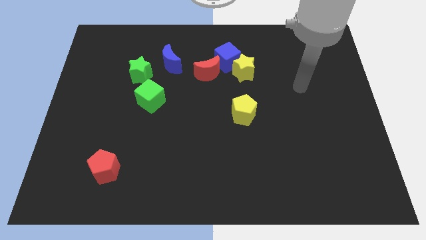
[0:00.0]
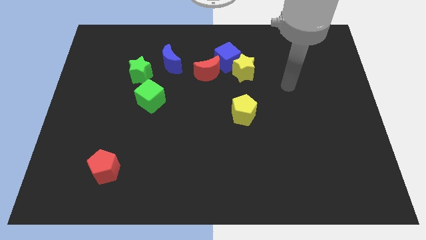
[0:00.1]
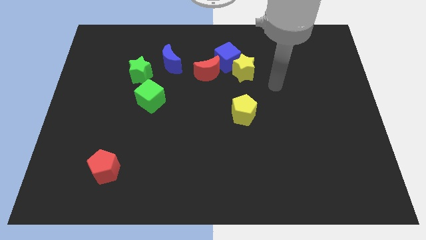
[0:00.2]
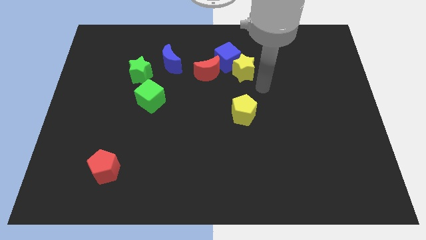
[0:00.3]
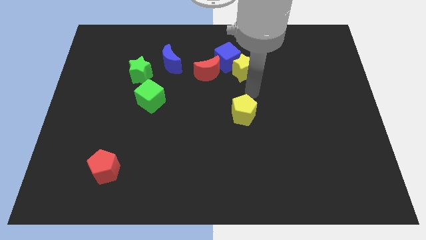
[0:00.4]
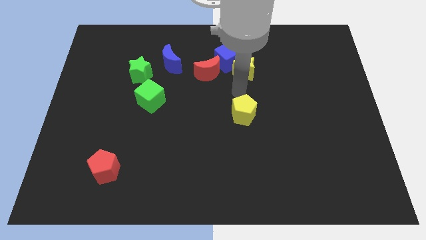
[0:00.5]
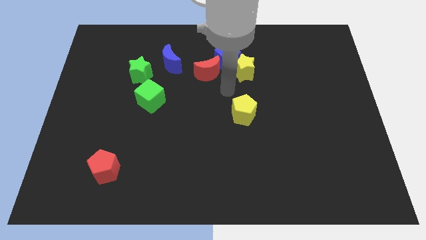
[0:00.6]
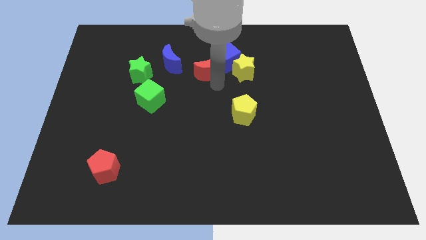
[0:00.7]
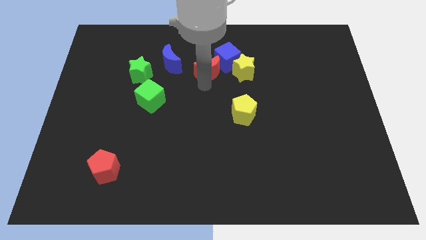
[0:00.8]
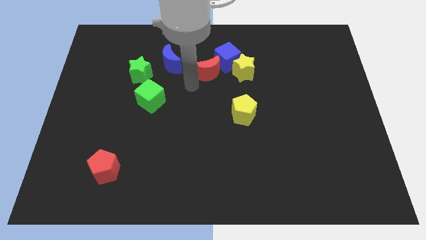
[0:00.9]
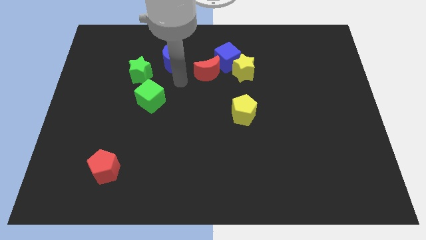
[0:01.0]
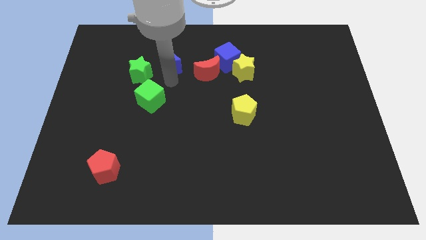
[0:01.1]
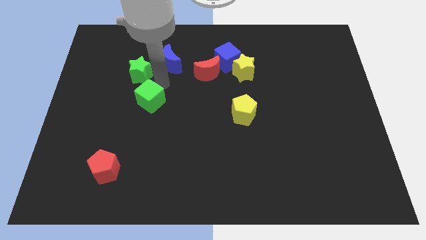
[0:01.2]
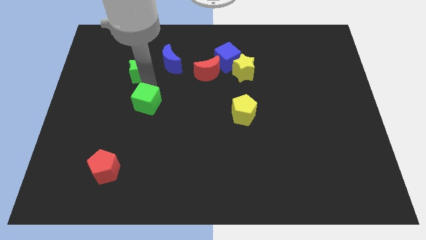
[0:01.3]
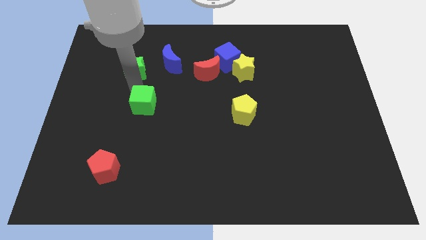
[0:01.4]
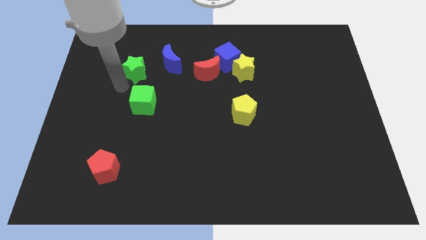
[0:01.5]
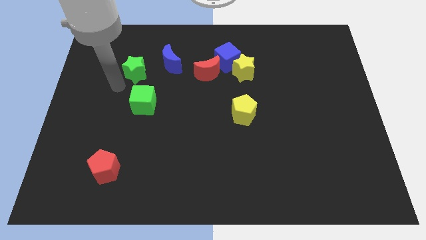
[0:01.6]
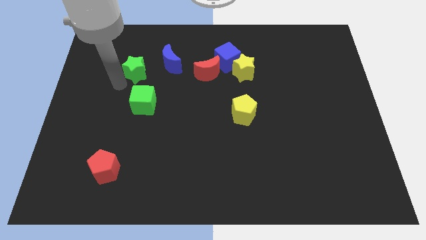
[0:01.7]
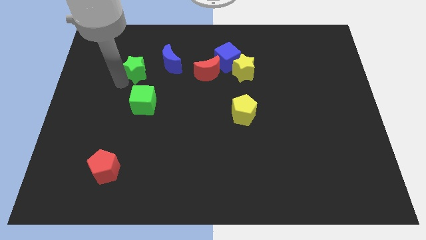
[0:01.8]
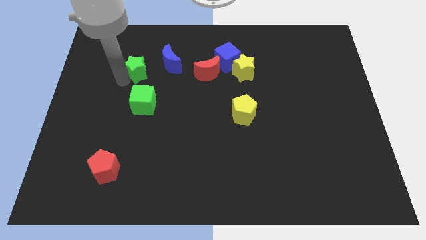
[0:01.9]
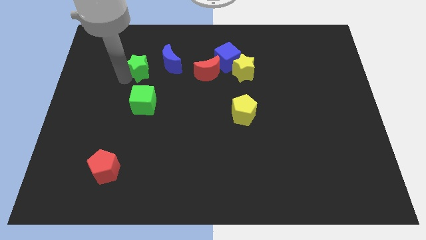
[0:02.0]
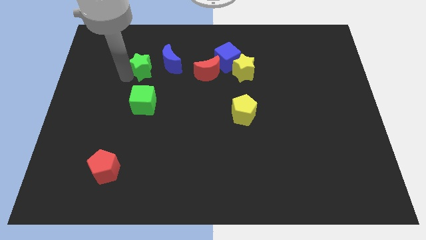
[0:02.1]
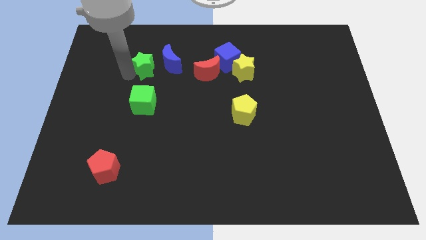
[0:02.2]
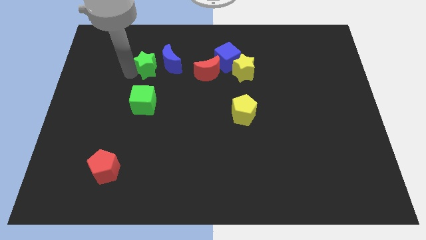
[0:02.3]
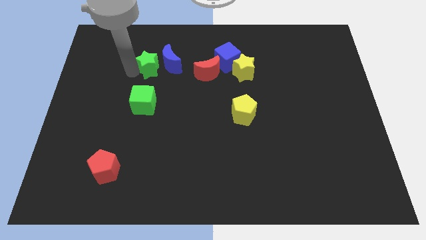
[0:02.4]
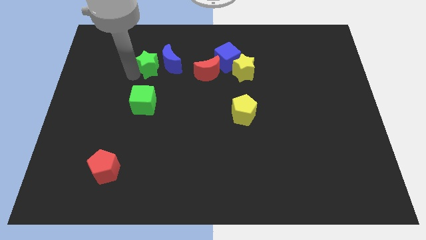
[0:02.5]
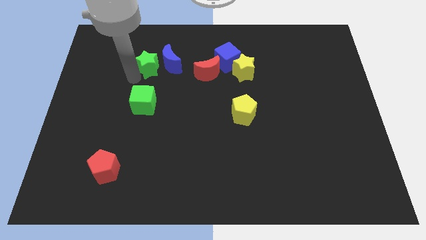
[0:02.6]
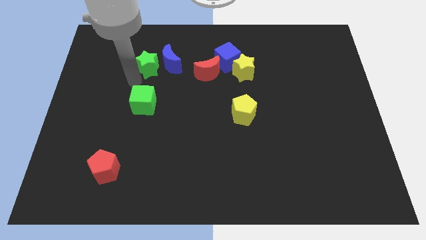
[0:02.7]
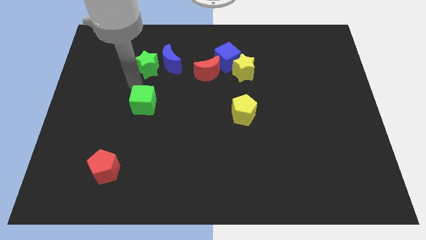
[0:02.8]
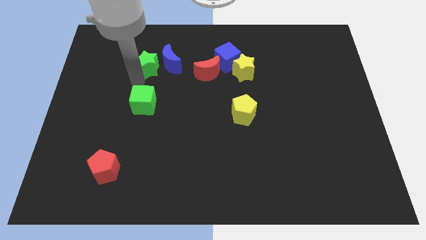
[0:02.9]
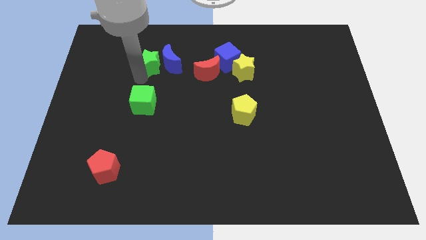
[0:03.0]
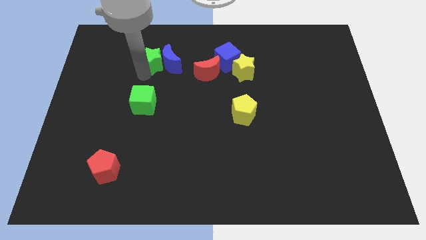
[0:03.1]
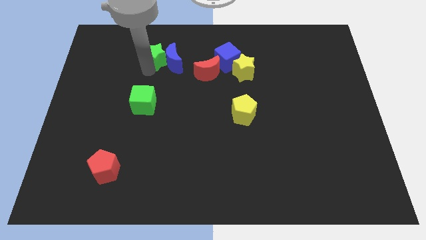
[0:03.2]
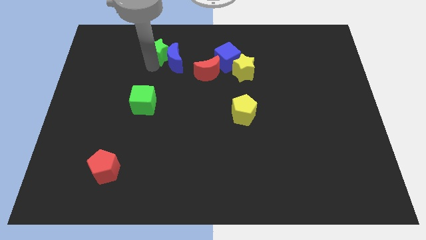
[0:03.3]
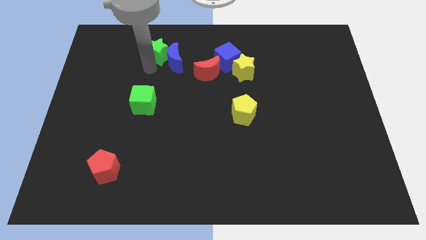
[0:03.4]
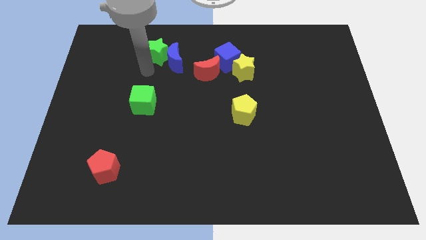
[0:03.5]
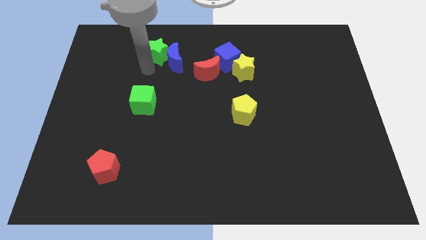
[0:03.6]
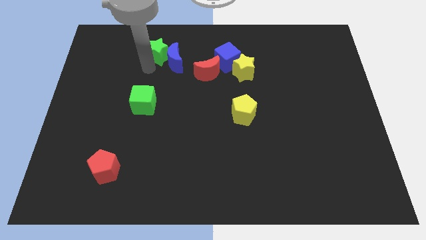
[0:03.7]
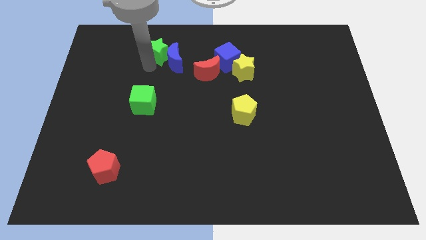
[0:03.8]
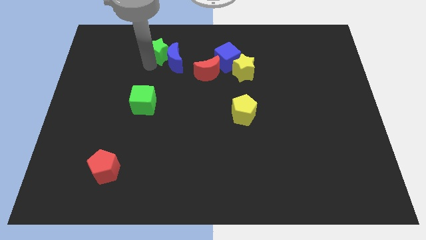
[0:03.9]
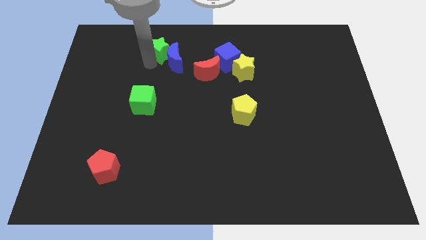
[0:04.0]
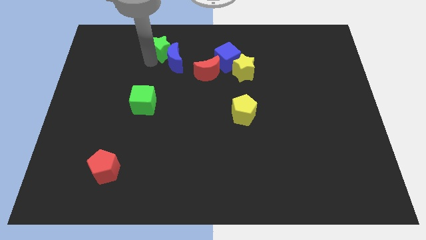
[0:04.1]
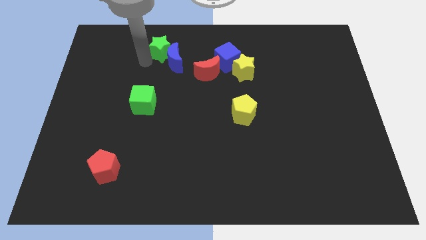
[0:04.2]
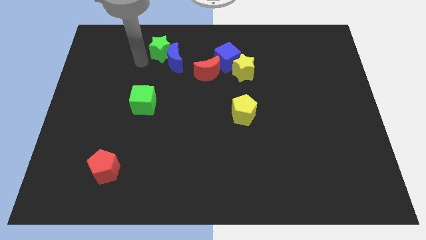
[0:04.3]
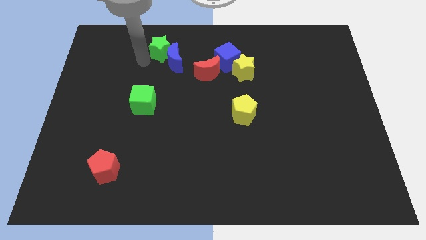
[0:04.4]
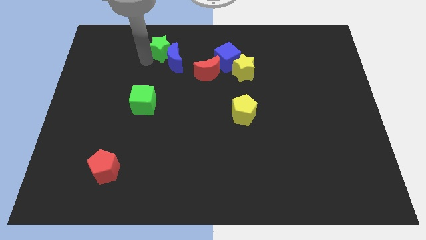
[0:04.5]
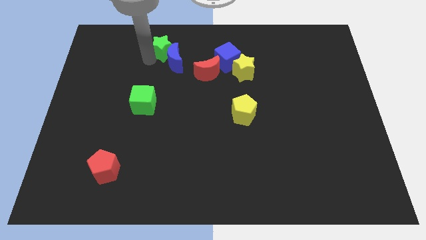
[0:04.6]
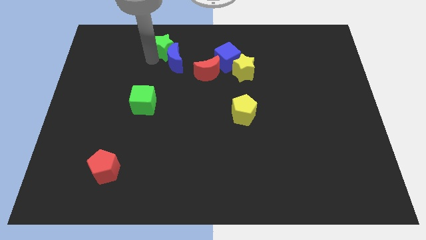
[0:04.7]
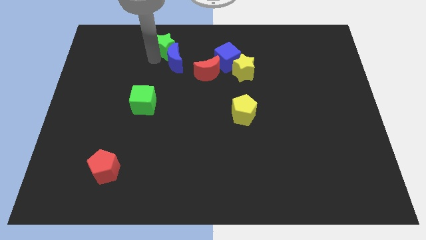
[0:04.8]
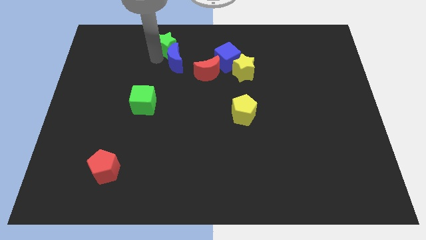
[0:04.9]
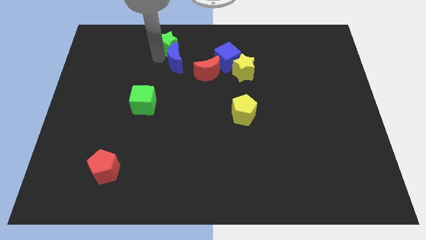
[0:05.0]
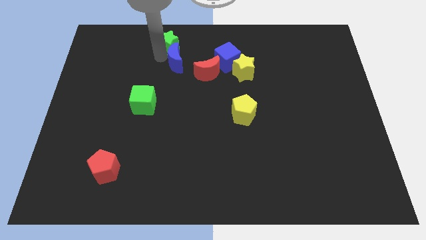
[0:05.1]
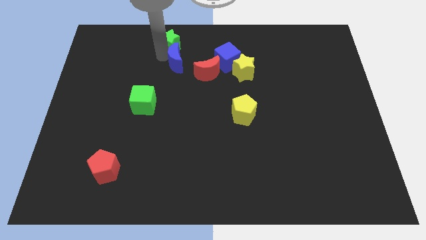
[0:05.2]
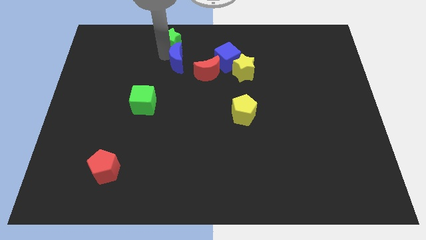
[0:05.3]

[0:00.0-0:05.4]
push the green star to the top side
